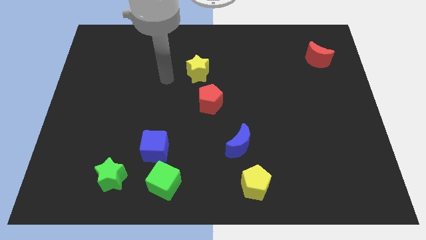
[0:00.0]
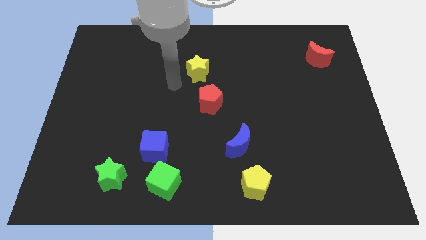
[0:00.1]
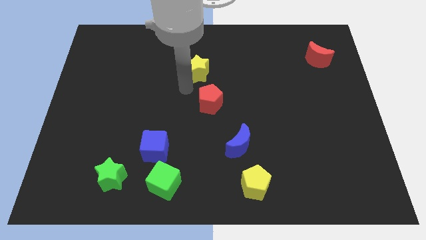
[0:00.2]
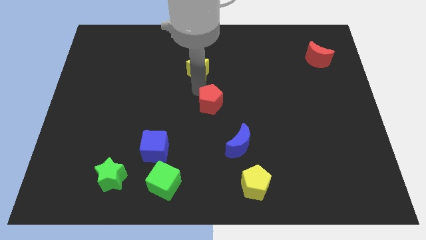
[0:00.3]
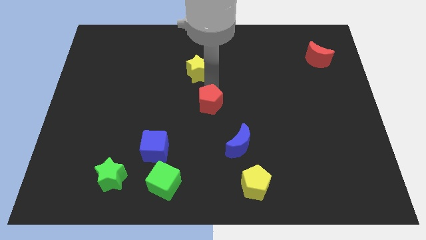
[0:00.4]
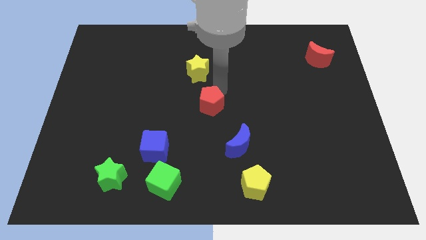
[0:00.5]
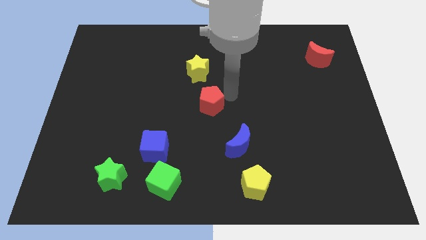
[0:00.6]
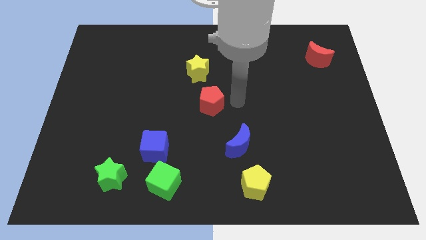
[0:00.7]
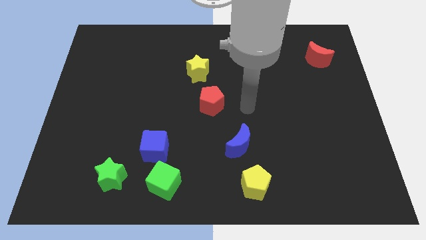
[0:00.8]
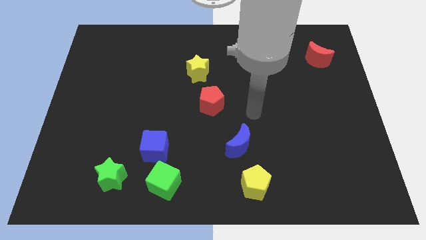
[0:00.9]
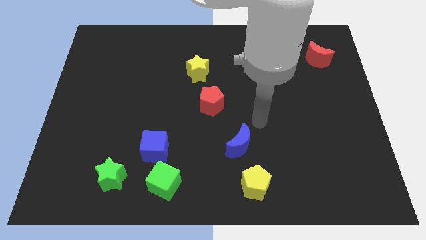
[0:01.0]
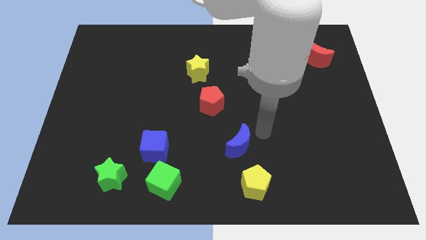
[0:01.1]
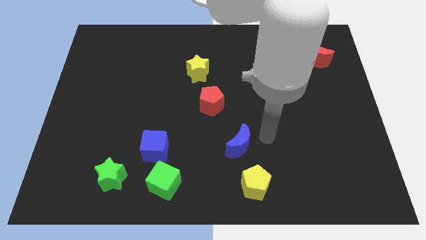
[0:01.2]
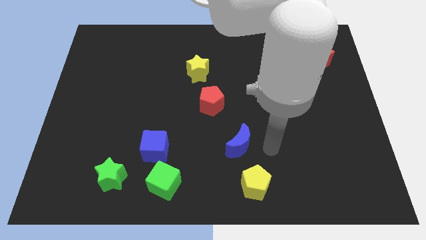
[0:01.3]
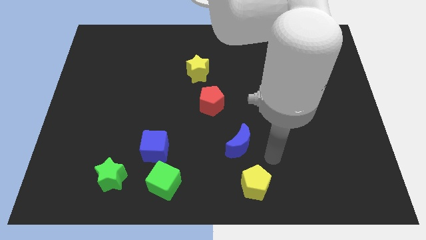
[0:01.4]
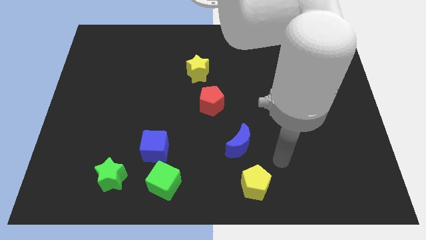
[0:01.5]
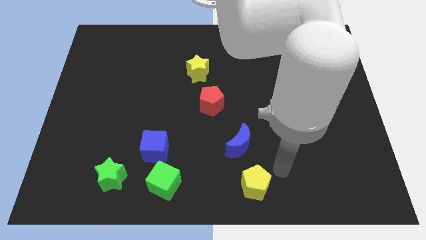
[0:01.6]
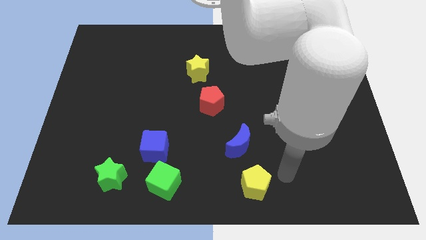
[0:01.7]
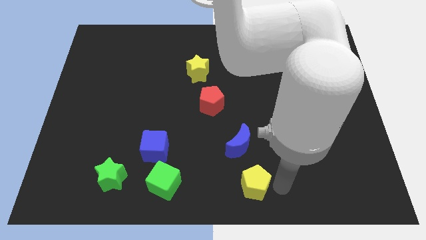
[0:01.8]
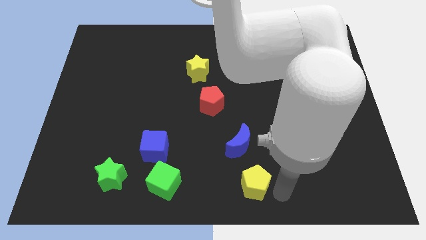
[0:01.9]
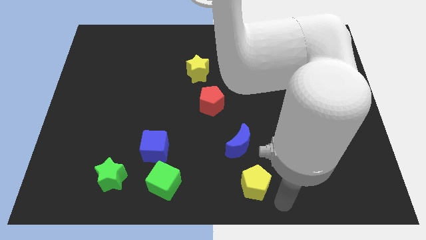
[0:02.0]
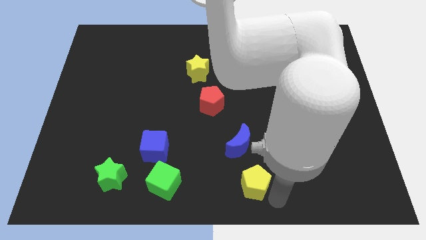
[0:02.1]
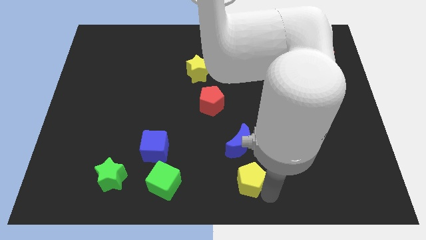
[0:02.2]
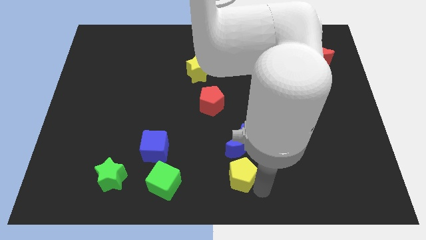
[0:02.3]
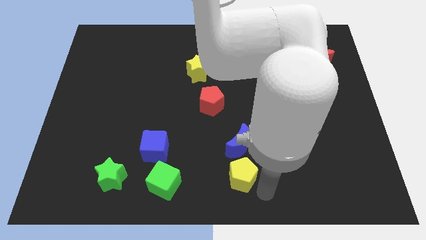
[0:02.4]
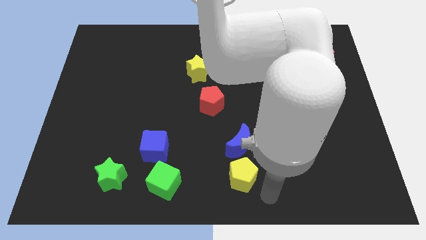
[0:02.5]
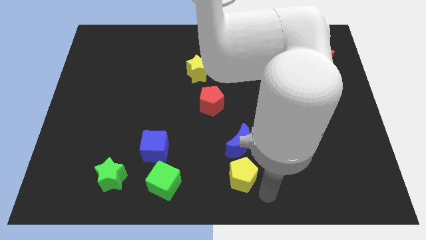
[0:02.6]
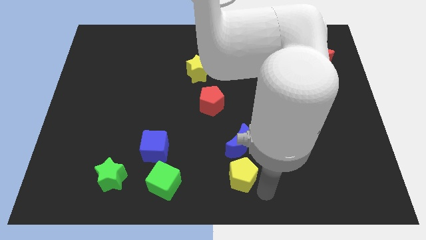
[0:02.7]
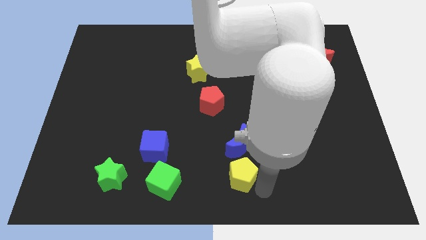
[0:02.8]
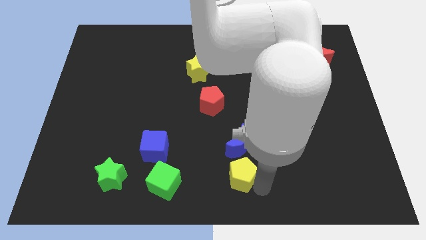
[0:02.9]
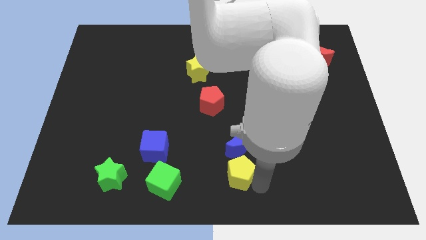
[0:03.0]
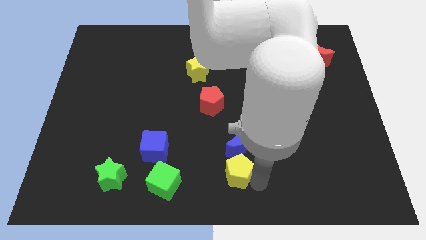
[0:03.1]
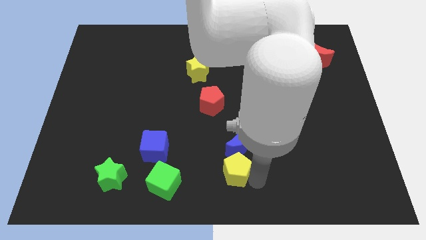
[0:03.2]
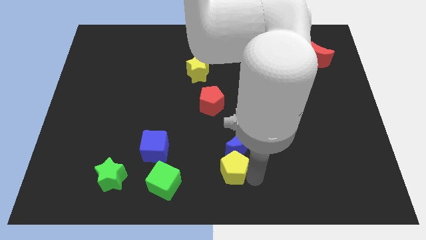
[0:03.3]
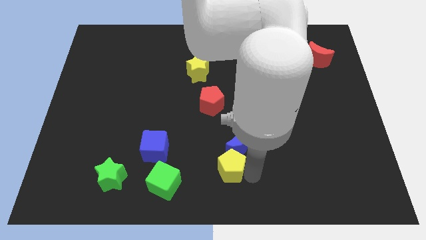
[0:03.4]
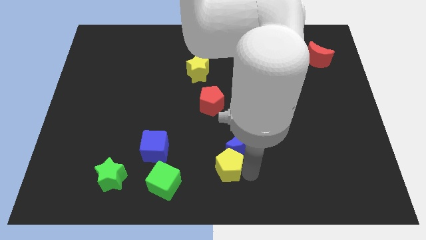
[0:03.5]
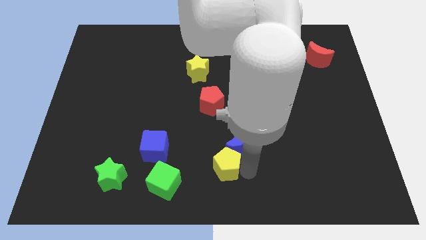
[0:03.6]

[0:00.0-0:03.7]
move the yellow pentagon upwards and to the left diagonally slightly

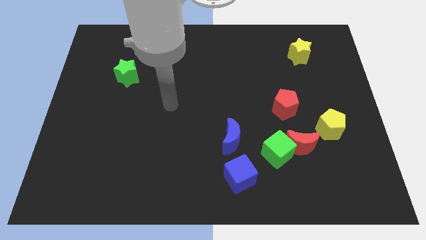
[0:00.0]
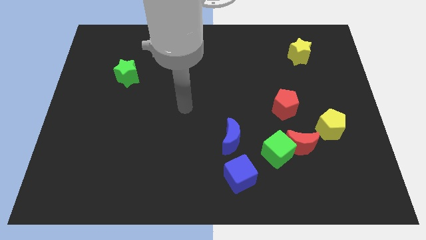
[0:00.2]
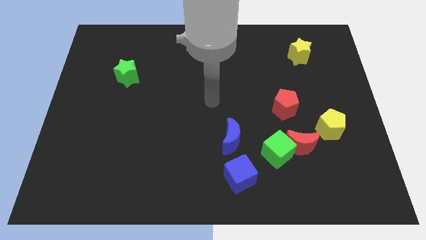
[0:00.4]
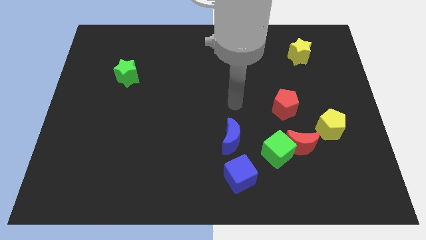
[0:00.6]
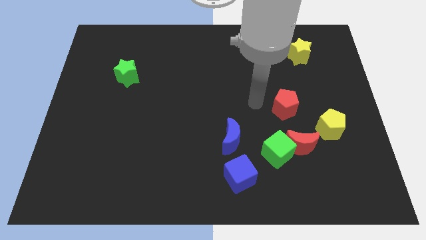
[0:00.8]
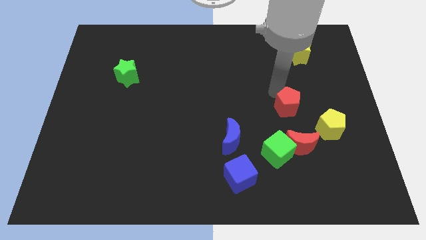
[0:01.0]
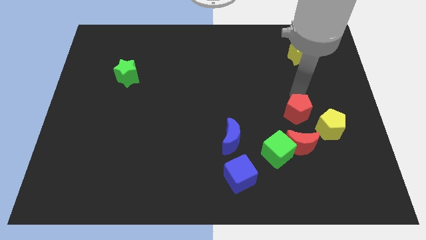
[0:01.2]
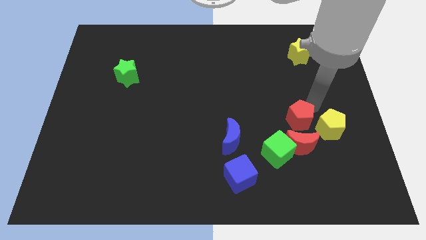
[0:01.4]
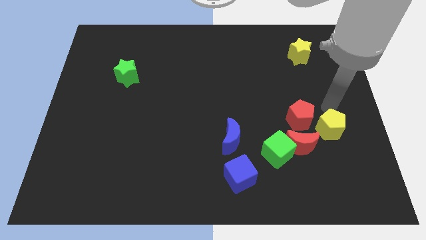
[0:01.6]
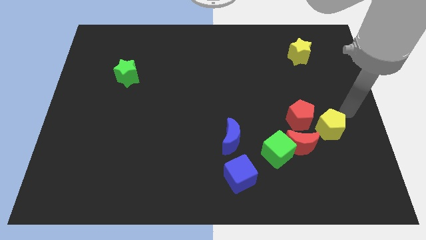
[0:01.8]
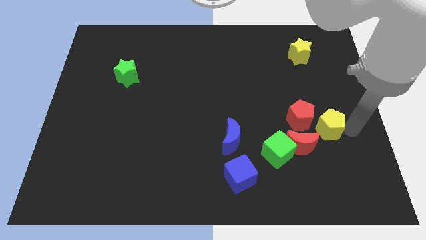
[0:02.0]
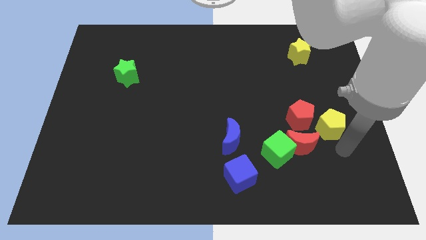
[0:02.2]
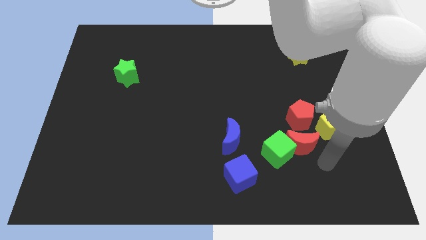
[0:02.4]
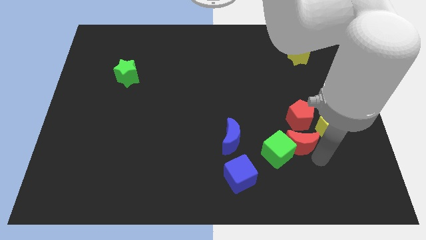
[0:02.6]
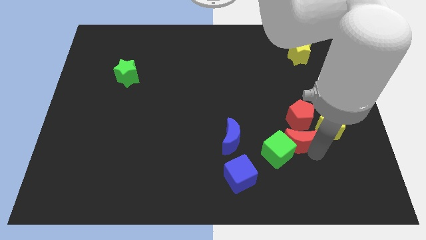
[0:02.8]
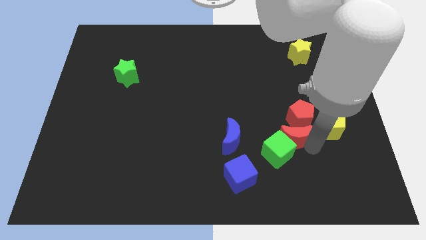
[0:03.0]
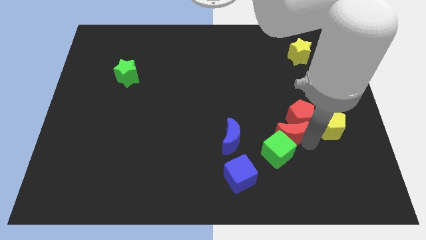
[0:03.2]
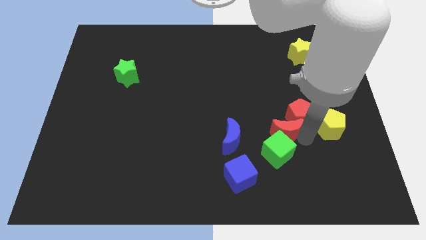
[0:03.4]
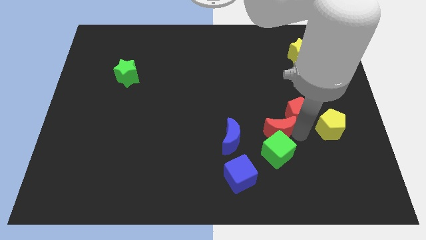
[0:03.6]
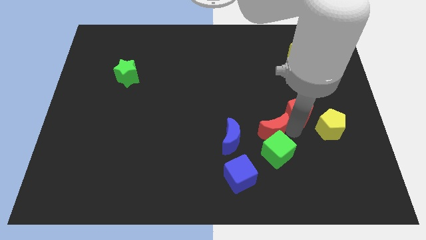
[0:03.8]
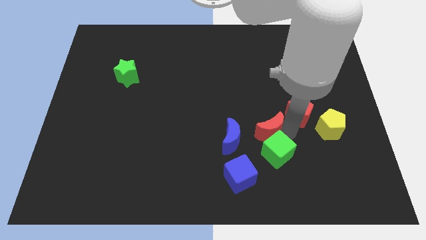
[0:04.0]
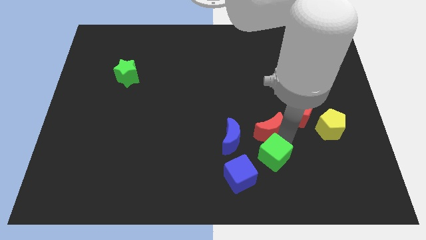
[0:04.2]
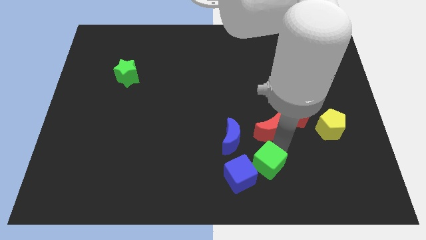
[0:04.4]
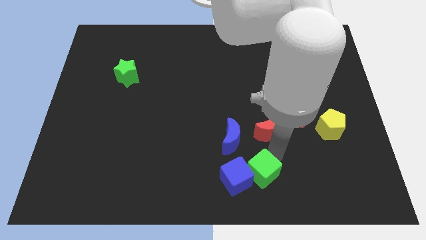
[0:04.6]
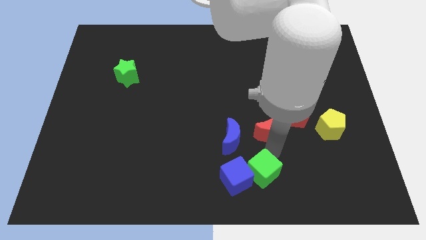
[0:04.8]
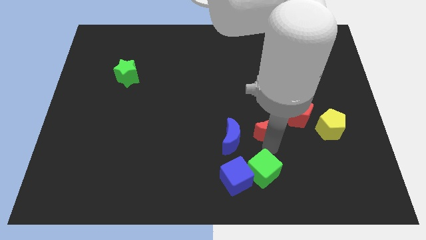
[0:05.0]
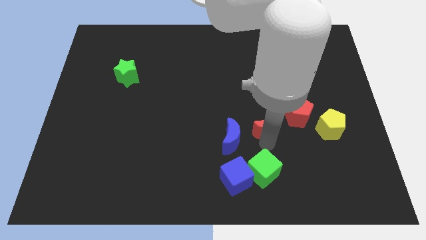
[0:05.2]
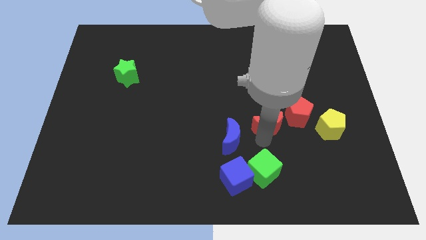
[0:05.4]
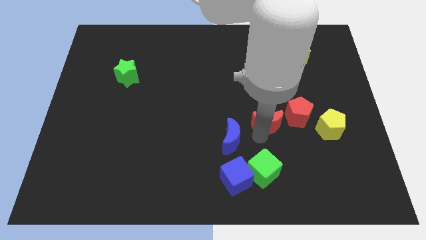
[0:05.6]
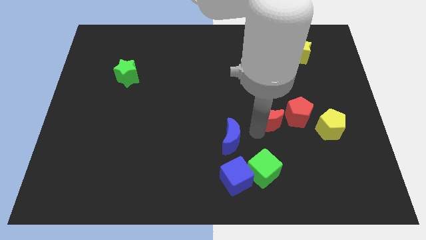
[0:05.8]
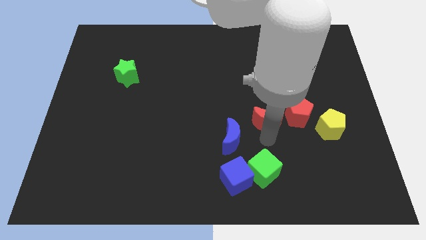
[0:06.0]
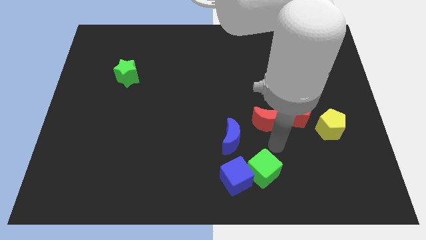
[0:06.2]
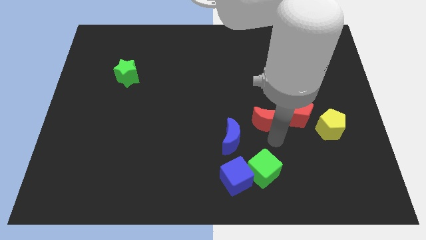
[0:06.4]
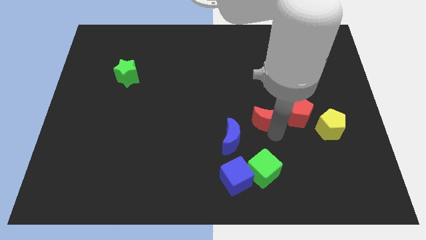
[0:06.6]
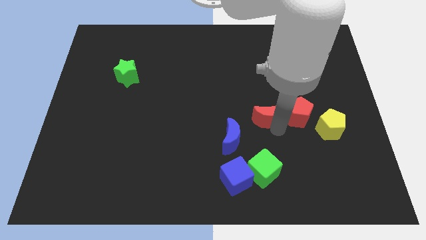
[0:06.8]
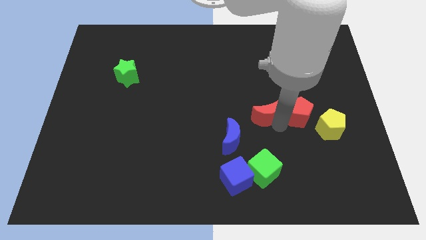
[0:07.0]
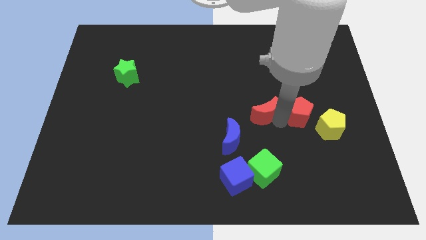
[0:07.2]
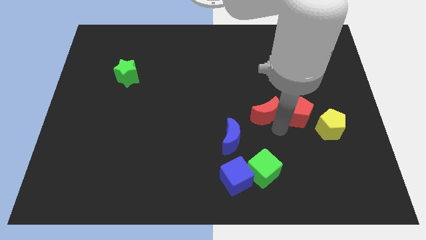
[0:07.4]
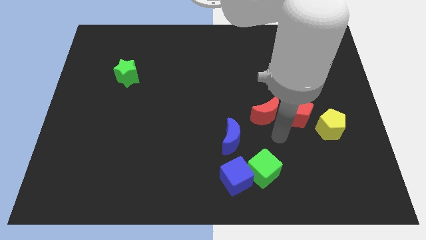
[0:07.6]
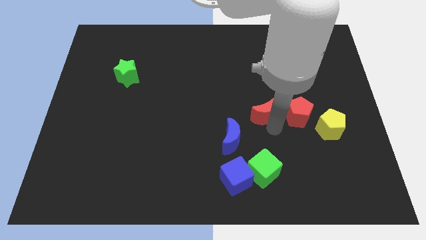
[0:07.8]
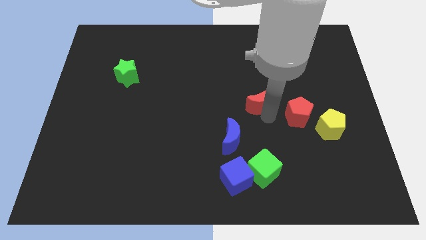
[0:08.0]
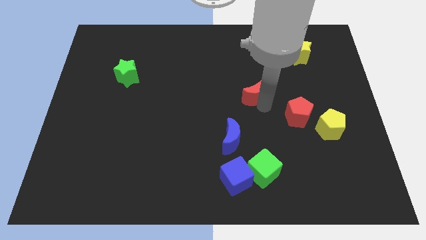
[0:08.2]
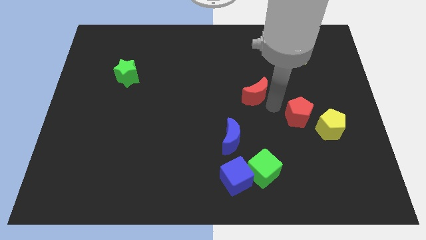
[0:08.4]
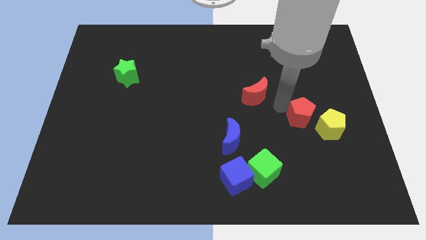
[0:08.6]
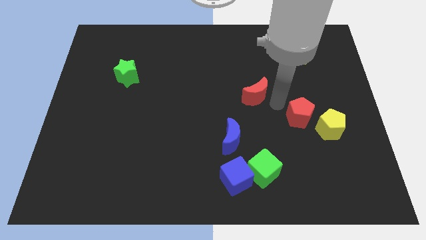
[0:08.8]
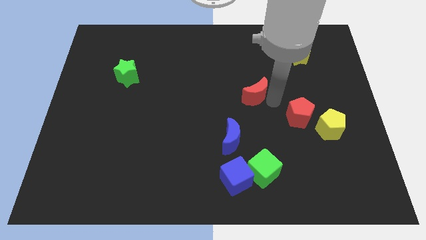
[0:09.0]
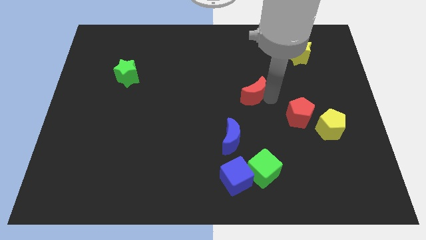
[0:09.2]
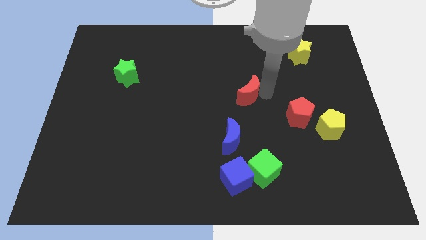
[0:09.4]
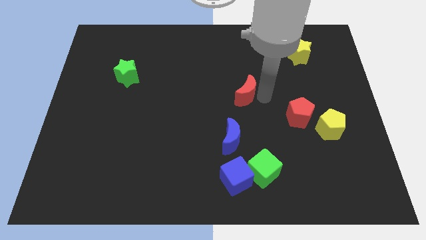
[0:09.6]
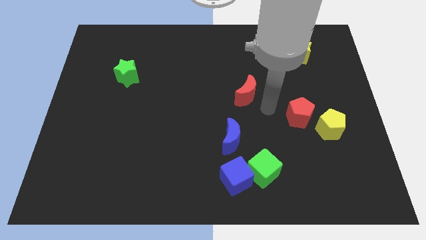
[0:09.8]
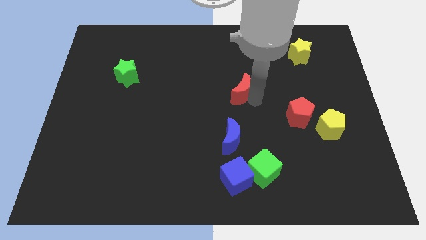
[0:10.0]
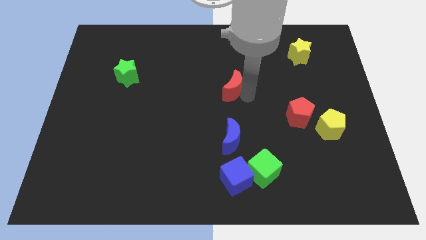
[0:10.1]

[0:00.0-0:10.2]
slide the red moon up and left
